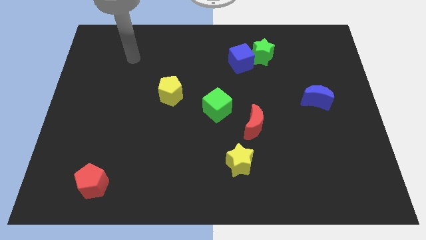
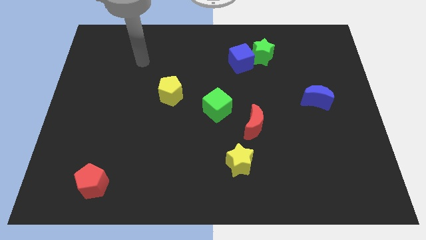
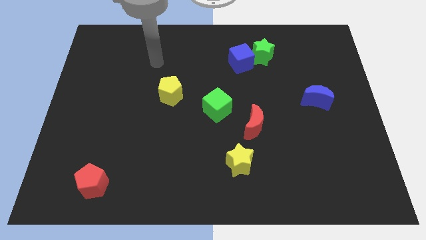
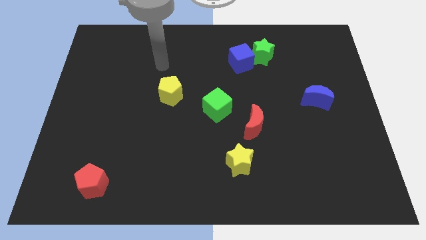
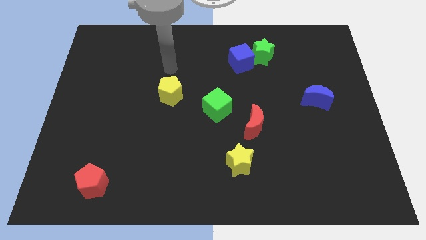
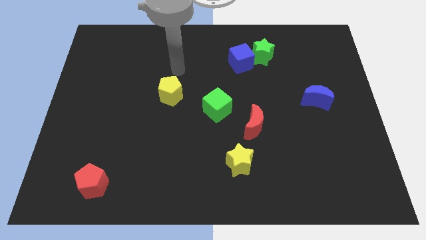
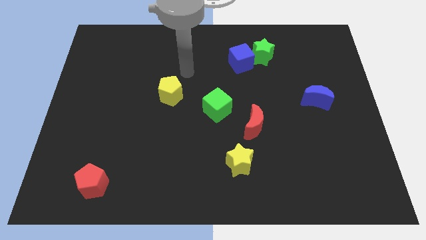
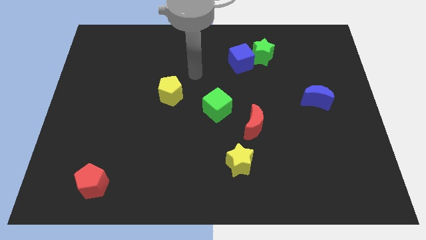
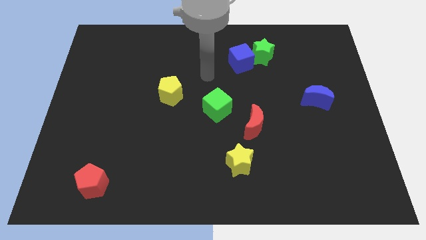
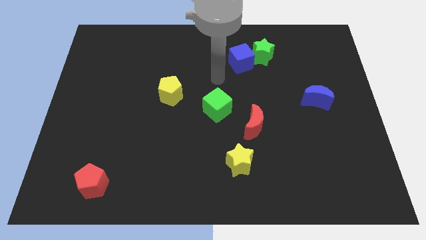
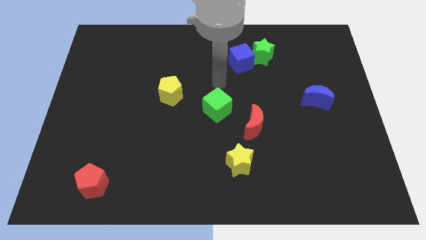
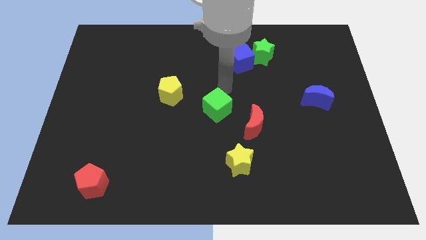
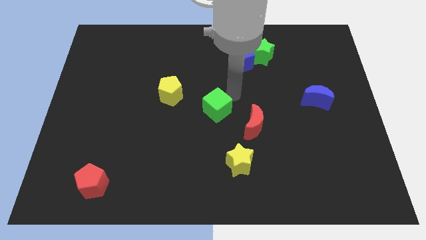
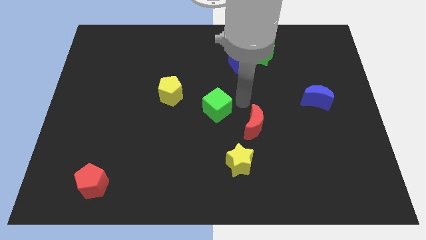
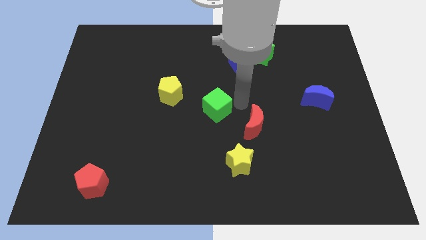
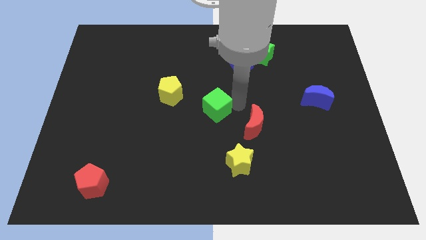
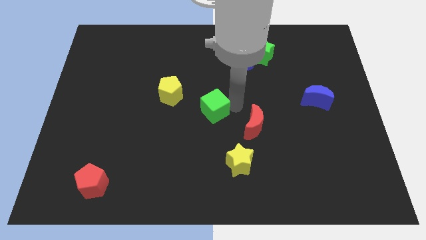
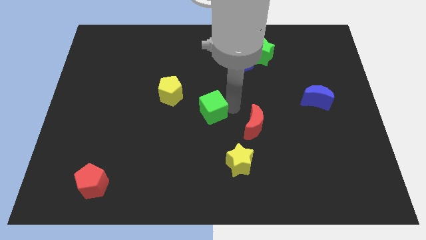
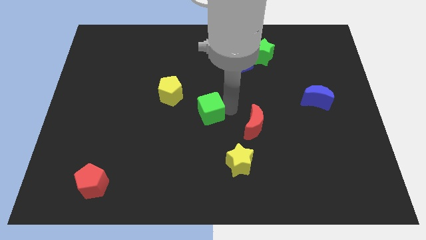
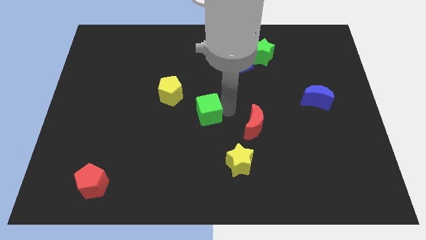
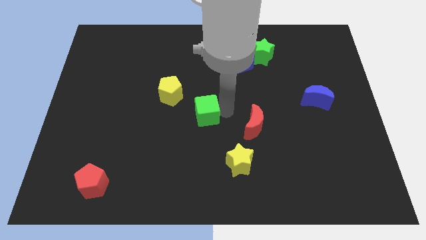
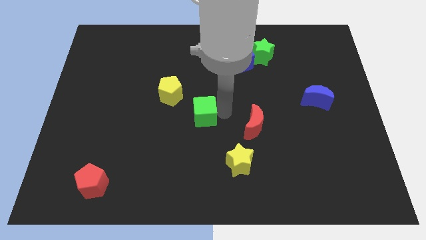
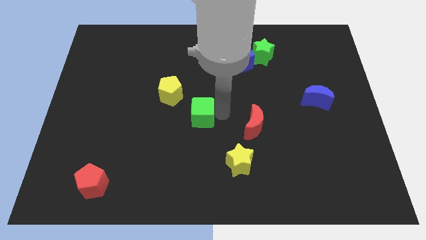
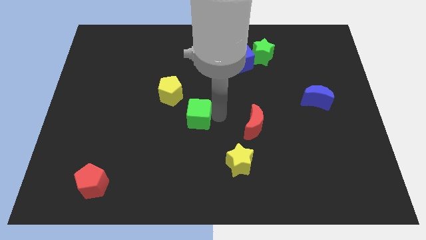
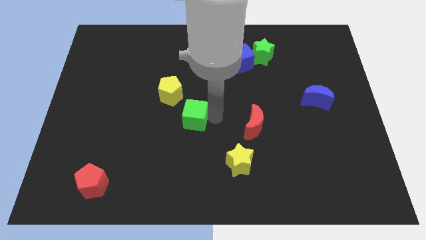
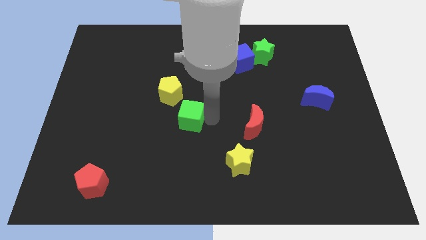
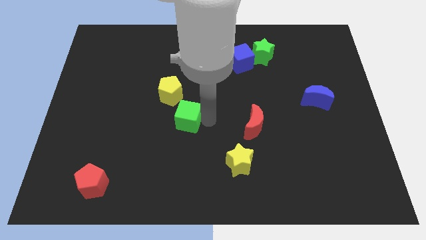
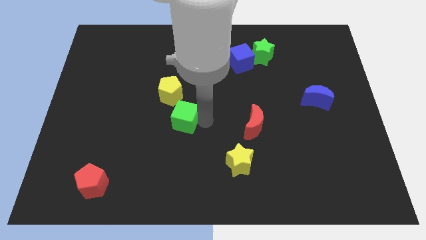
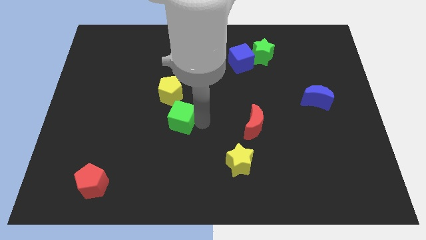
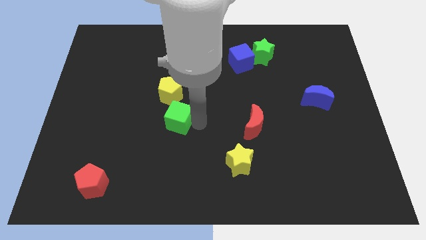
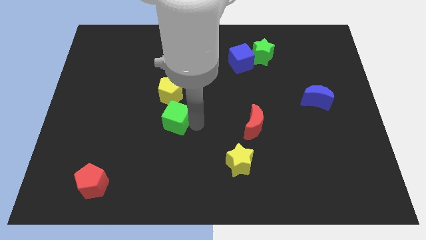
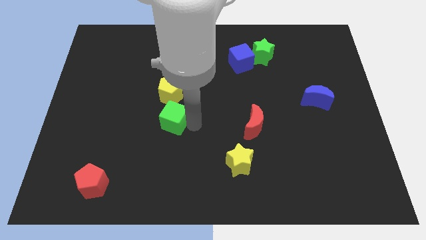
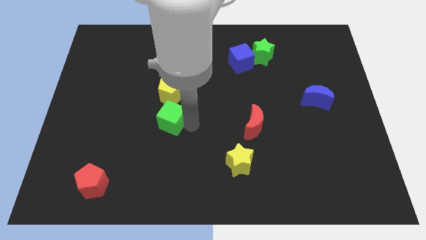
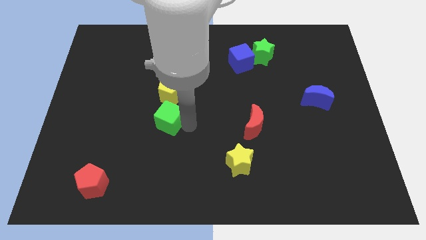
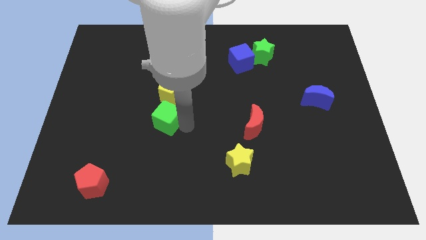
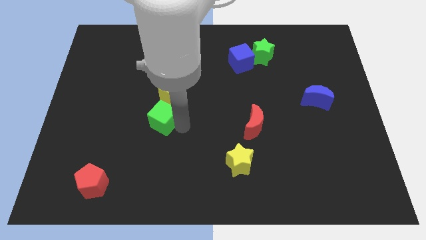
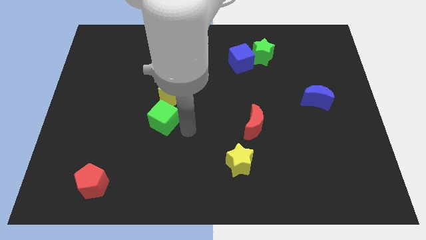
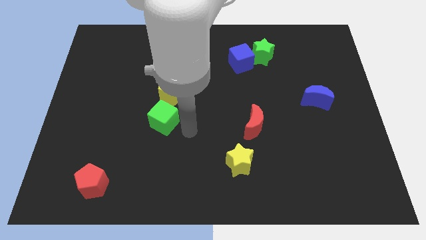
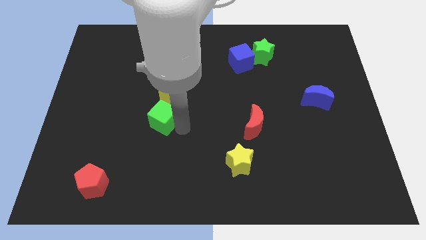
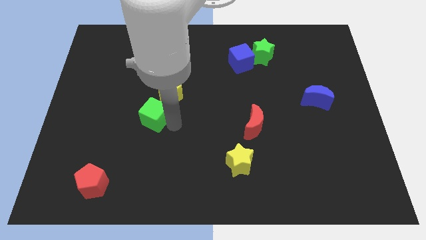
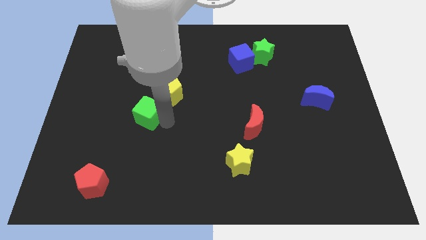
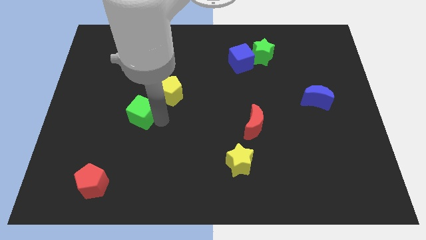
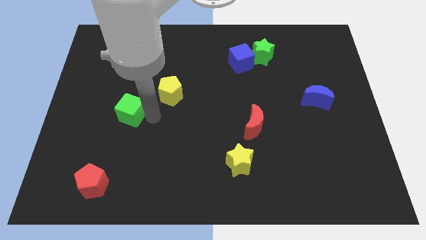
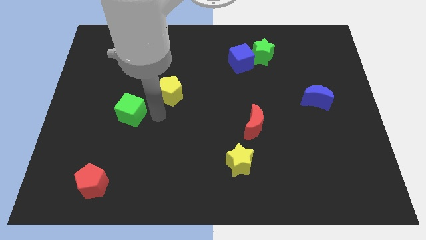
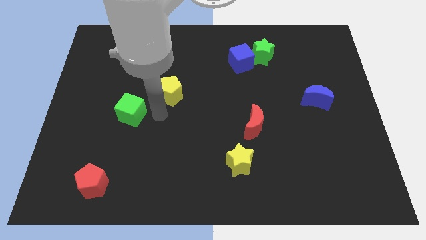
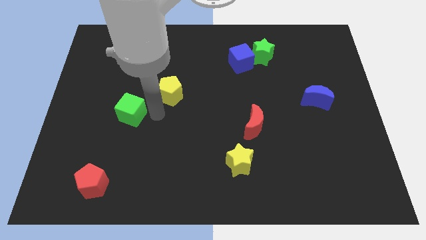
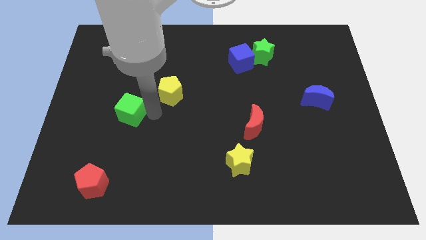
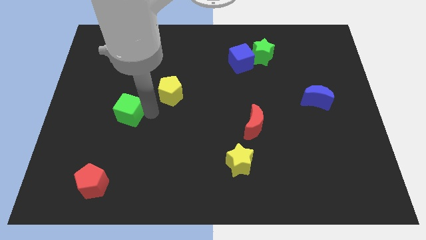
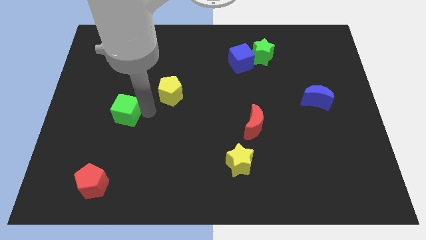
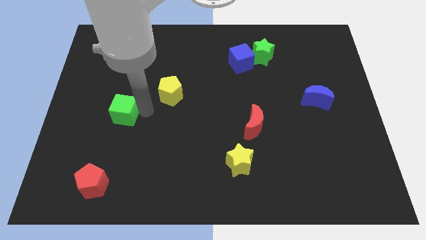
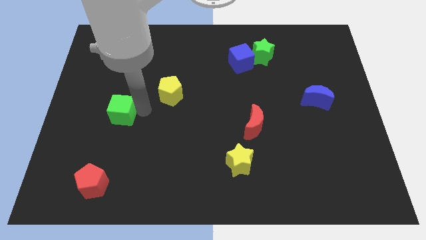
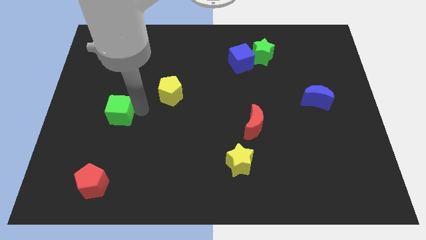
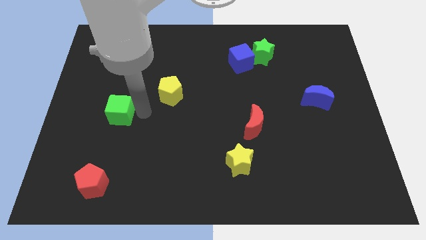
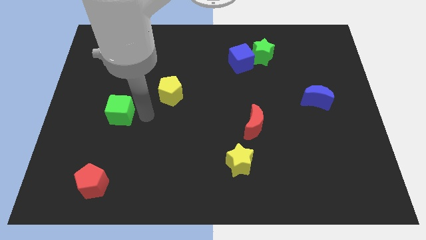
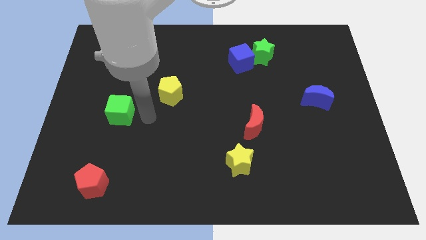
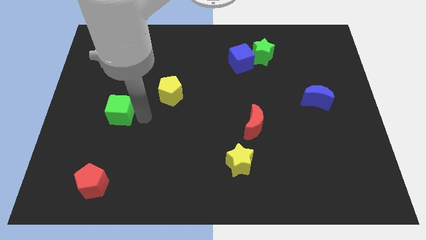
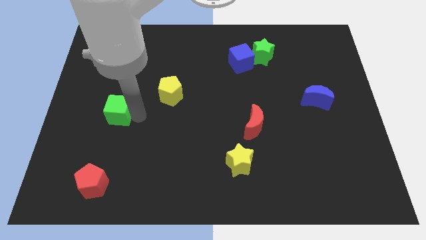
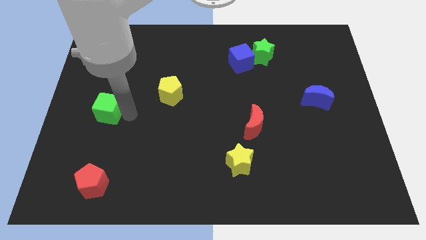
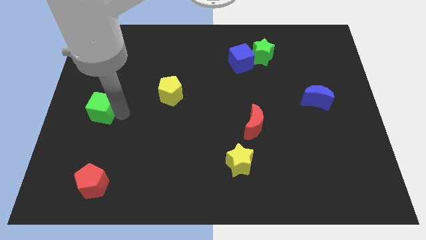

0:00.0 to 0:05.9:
push the green cube to the left side

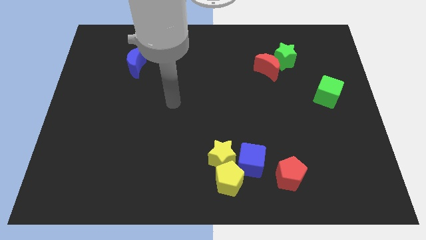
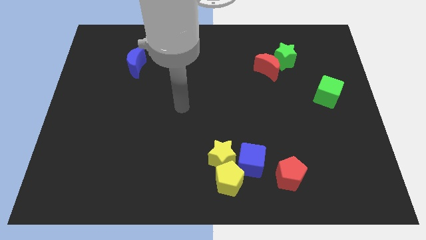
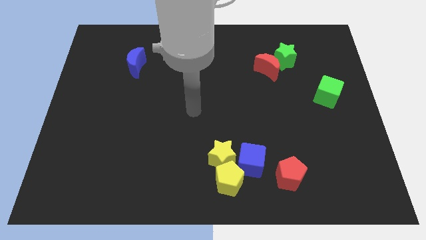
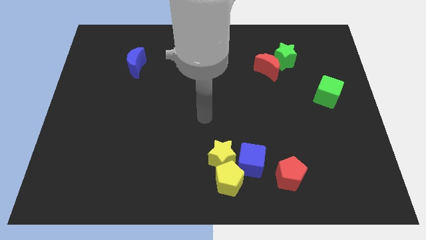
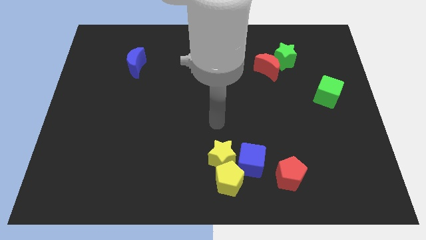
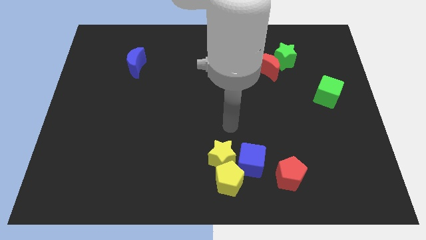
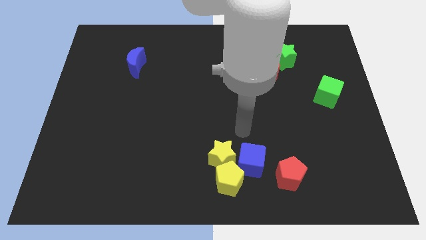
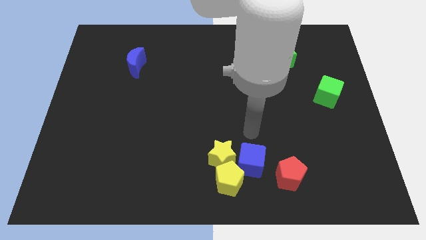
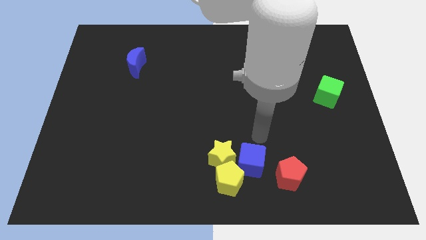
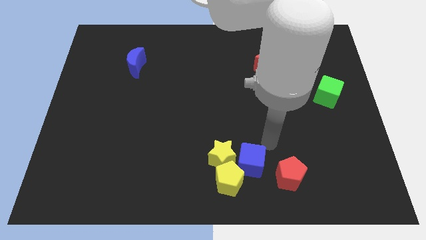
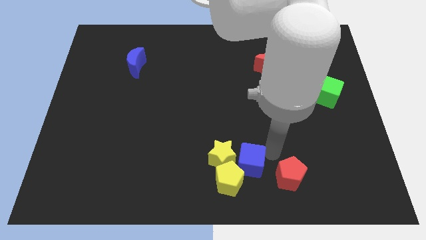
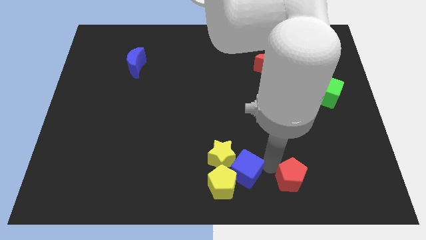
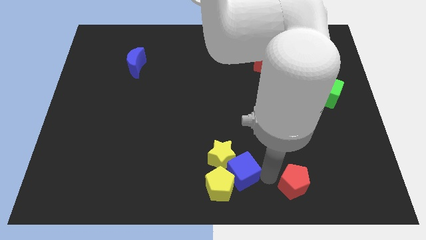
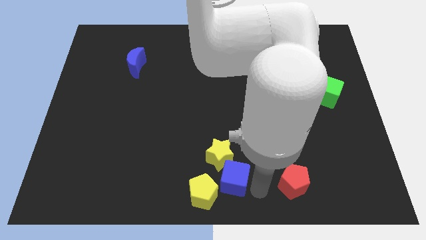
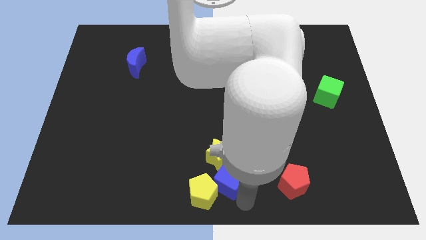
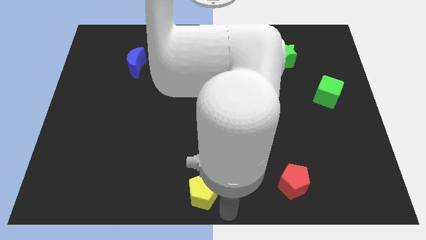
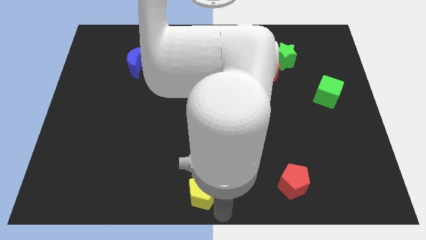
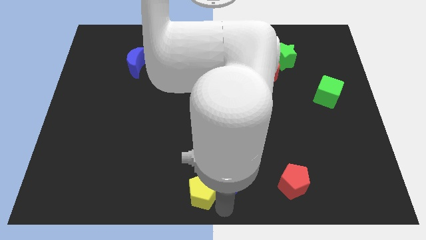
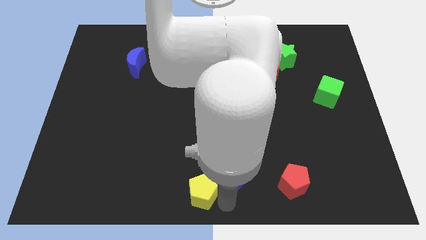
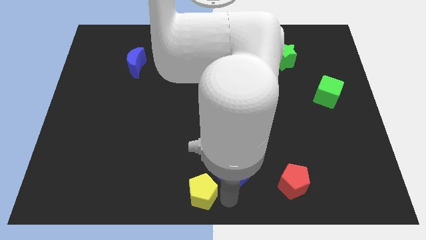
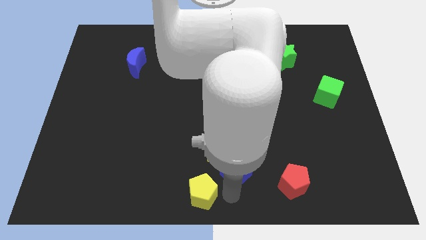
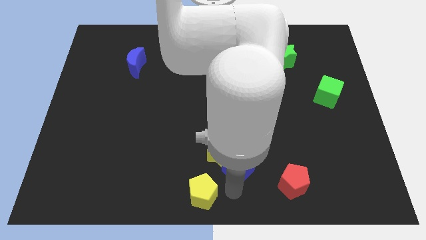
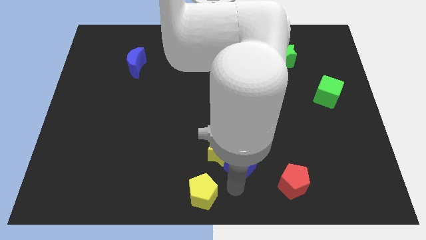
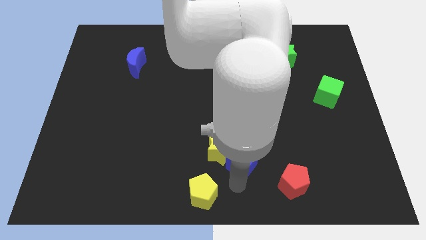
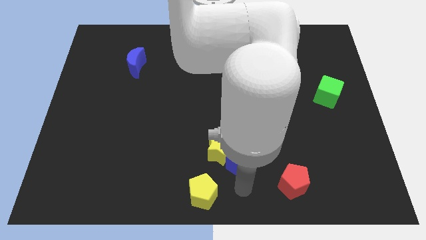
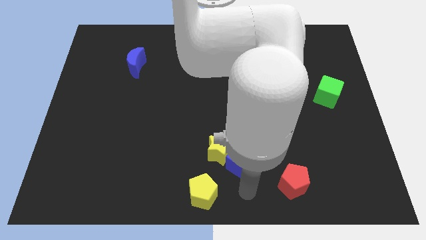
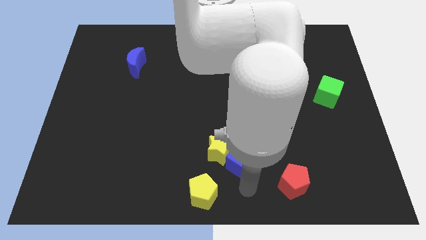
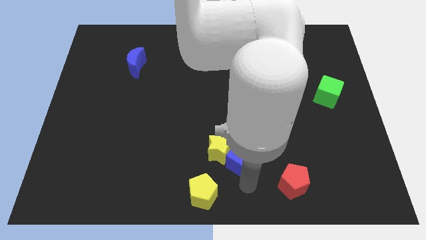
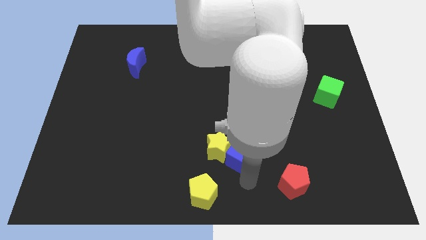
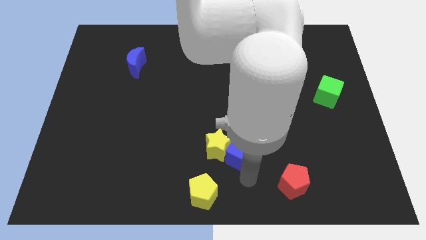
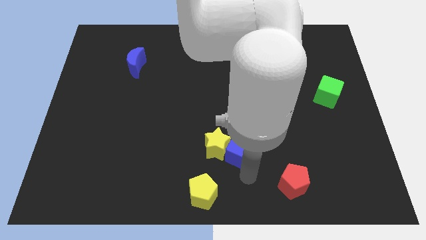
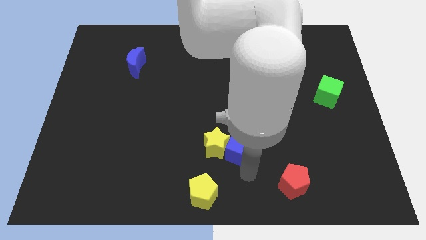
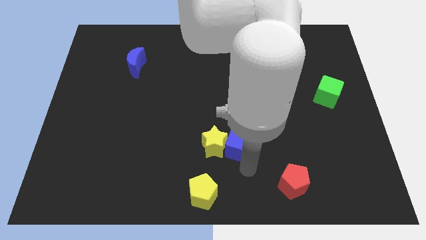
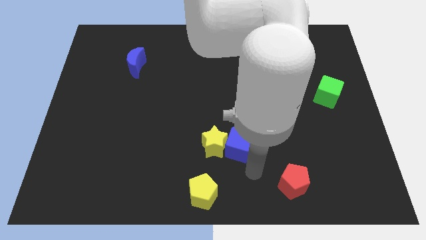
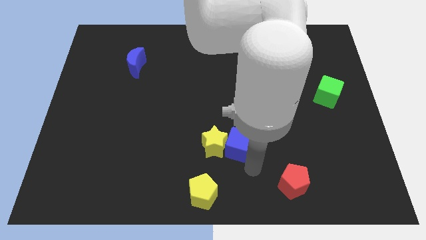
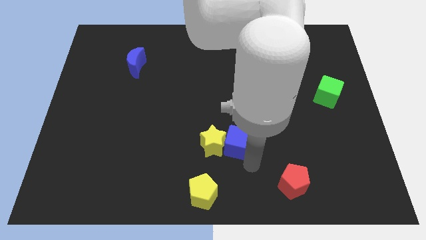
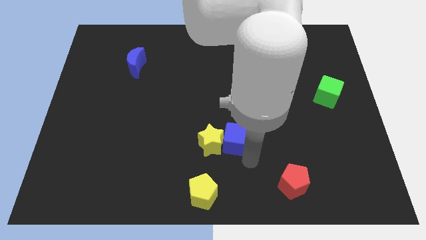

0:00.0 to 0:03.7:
slide the blue cube to the center
